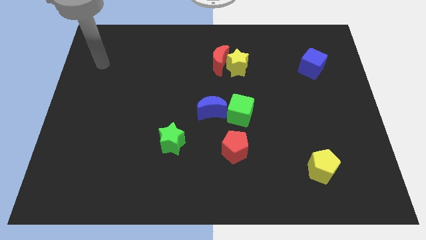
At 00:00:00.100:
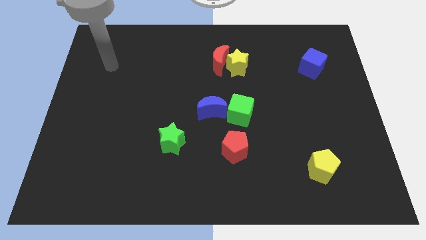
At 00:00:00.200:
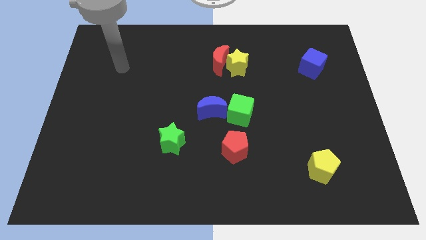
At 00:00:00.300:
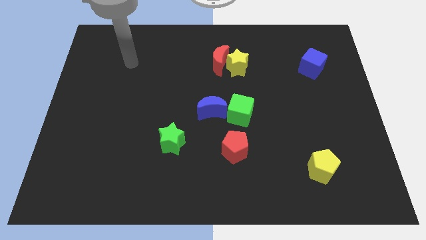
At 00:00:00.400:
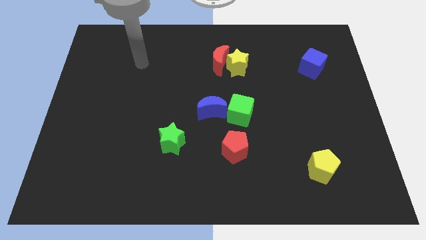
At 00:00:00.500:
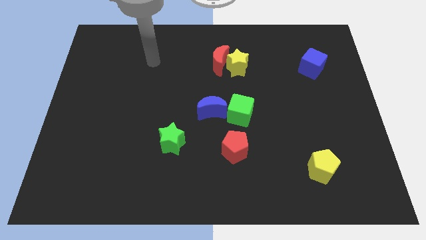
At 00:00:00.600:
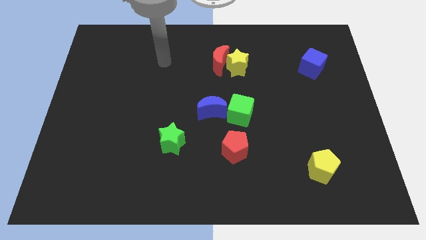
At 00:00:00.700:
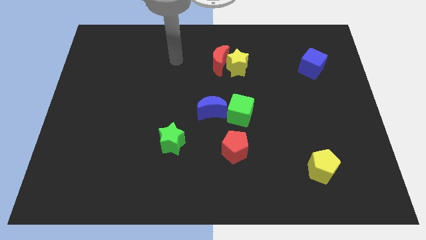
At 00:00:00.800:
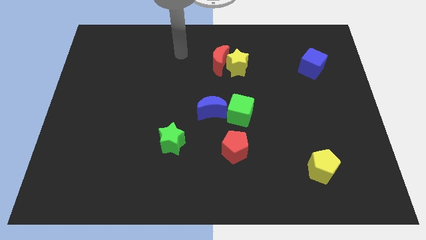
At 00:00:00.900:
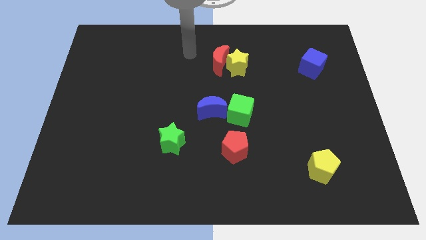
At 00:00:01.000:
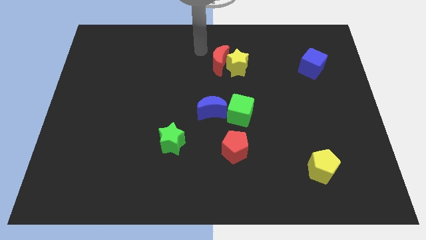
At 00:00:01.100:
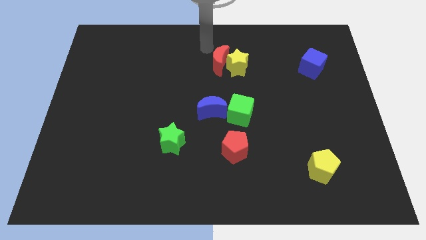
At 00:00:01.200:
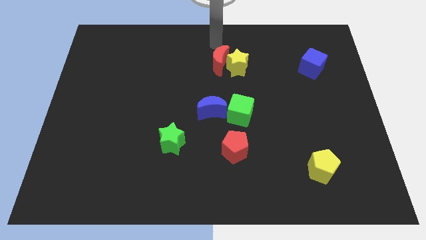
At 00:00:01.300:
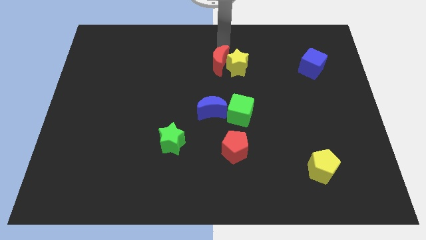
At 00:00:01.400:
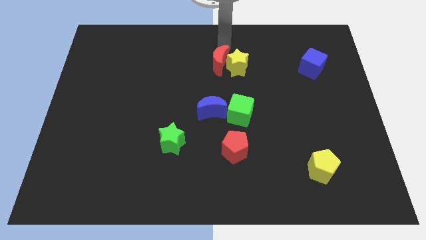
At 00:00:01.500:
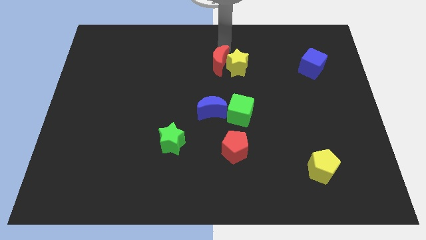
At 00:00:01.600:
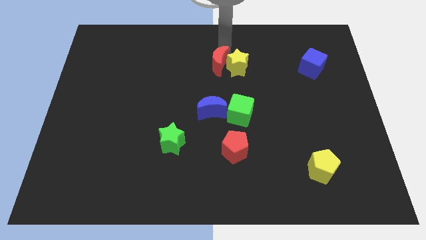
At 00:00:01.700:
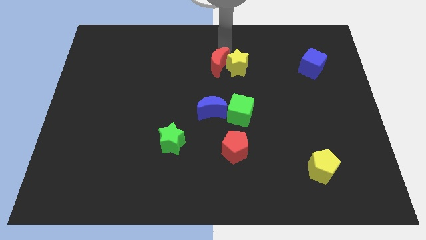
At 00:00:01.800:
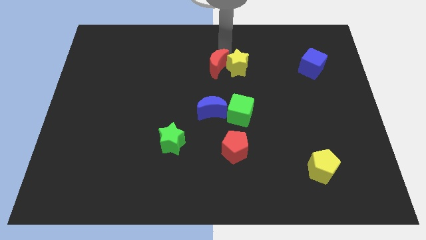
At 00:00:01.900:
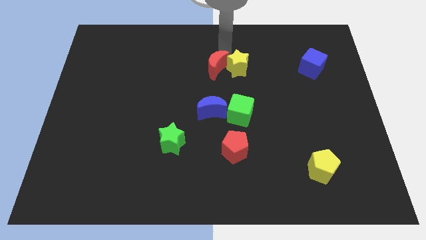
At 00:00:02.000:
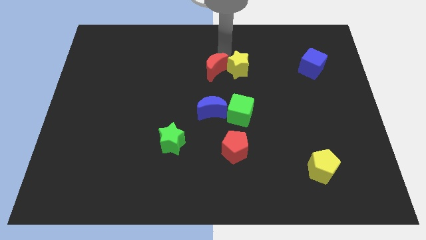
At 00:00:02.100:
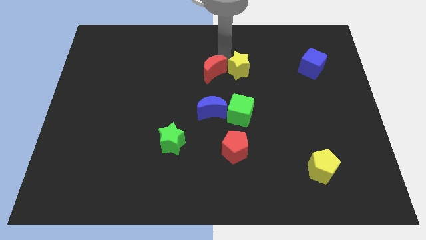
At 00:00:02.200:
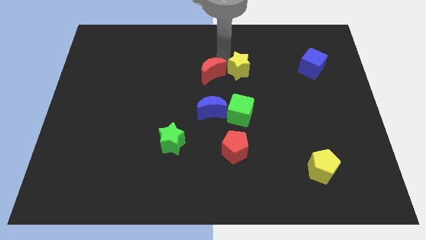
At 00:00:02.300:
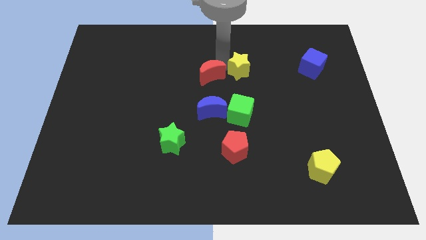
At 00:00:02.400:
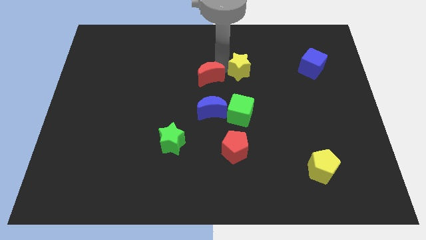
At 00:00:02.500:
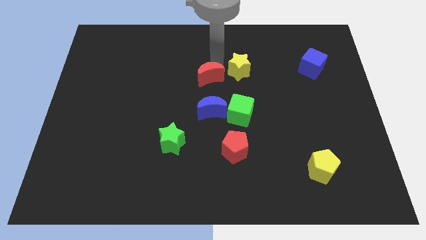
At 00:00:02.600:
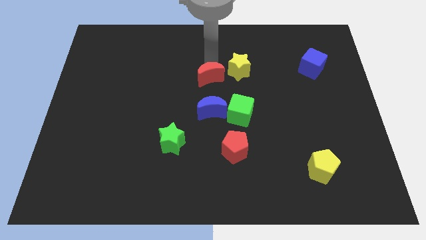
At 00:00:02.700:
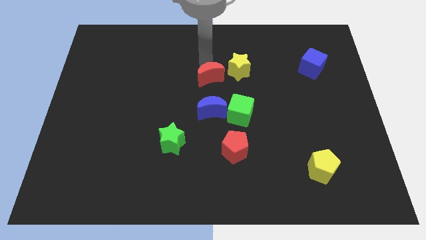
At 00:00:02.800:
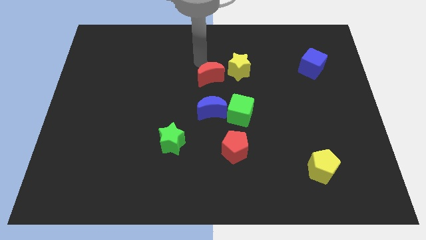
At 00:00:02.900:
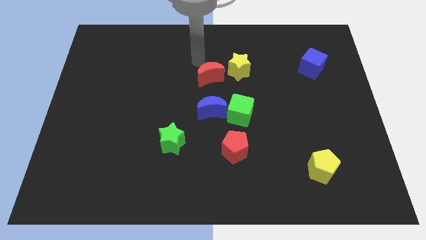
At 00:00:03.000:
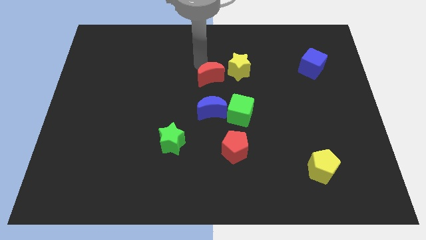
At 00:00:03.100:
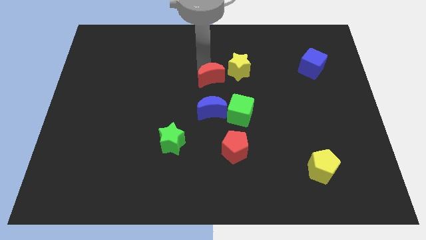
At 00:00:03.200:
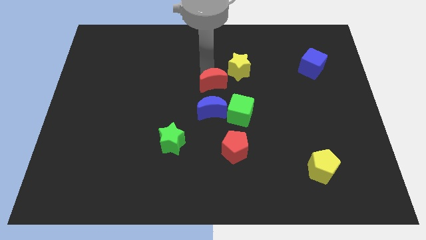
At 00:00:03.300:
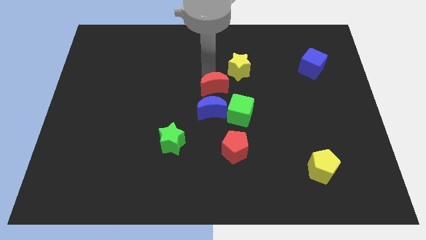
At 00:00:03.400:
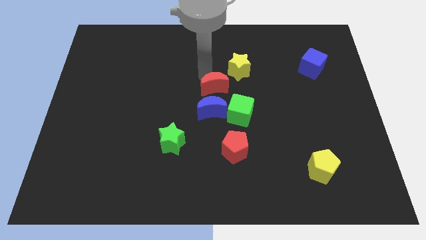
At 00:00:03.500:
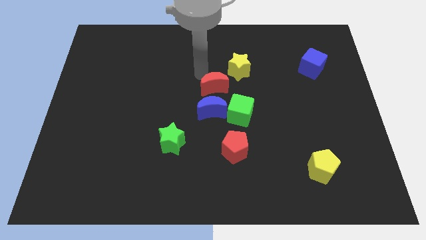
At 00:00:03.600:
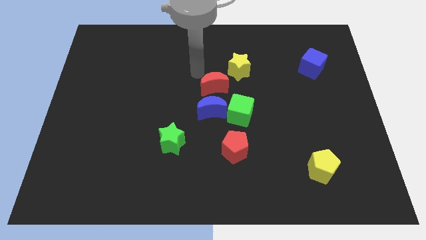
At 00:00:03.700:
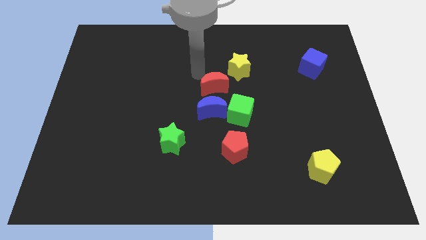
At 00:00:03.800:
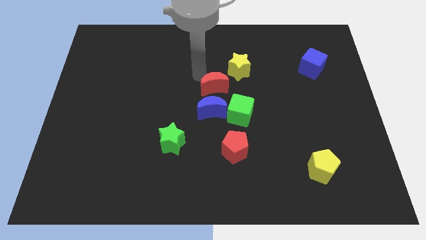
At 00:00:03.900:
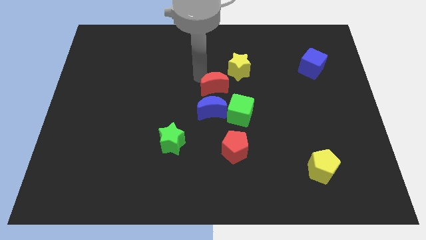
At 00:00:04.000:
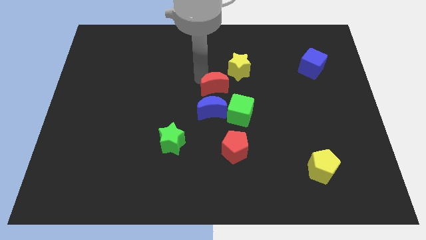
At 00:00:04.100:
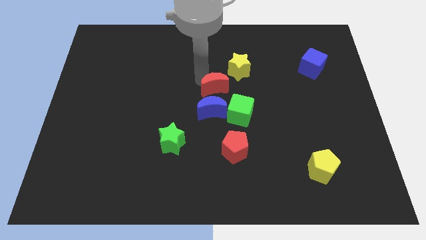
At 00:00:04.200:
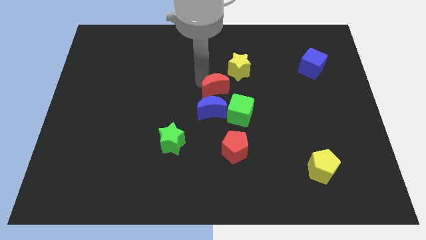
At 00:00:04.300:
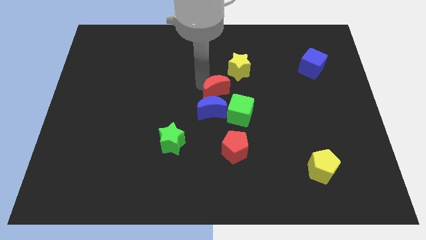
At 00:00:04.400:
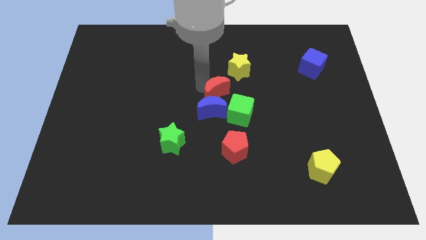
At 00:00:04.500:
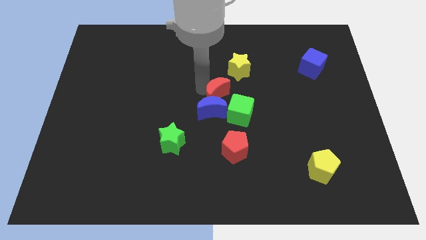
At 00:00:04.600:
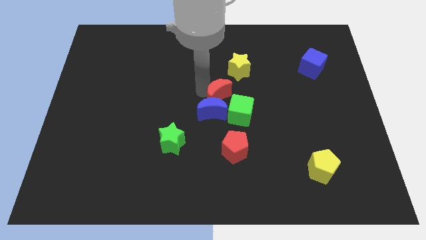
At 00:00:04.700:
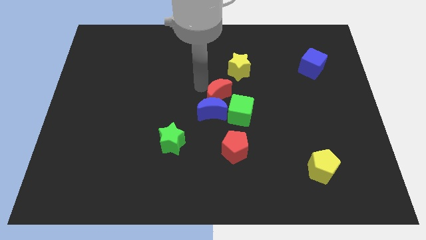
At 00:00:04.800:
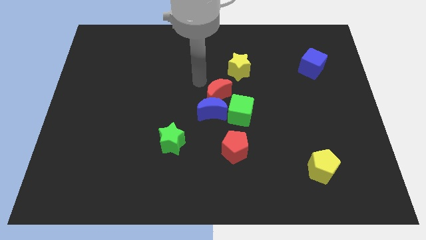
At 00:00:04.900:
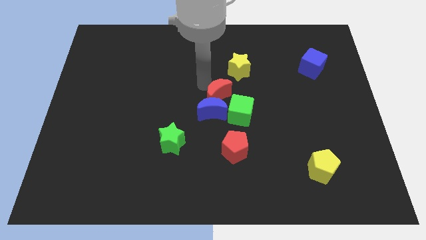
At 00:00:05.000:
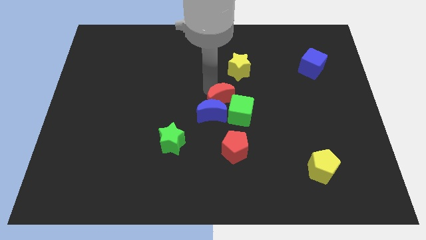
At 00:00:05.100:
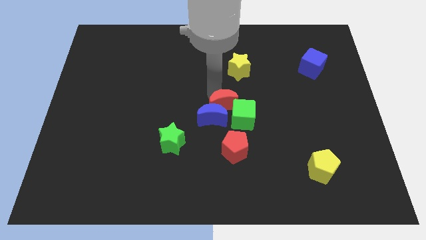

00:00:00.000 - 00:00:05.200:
put the red moon to the green cube

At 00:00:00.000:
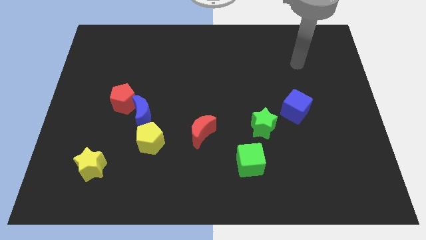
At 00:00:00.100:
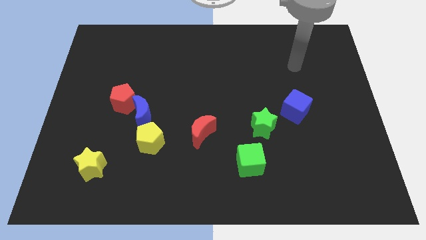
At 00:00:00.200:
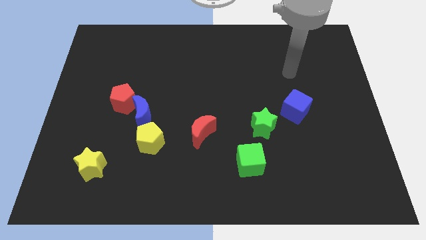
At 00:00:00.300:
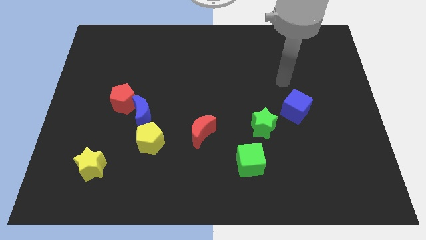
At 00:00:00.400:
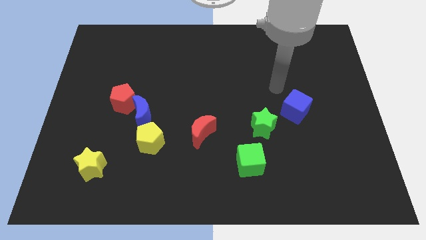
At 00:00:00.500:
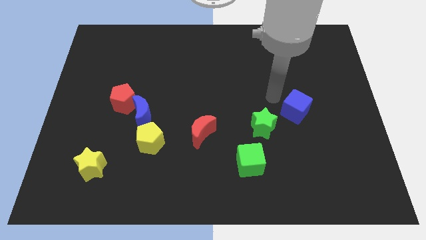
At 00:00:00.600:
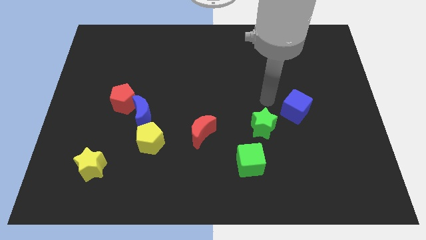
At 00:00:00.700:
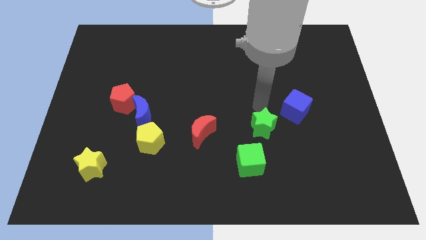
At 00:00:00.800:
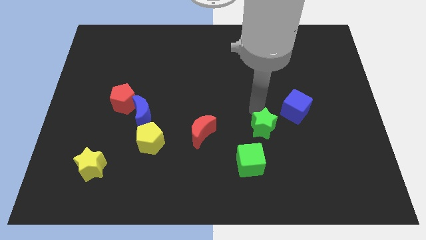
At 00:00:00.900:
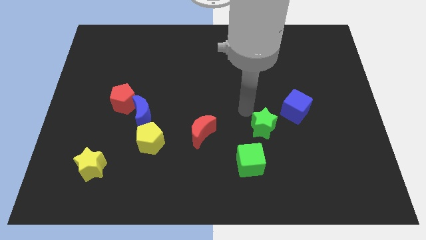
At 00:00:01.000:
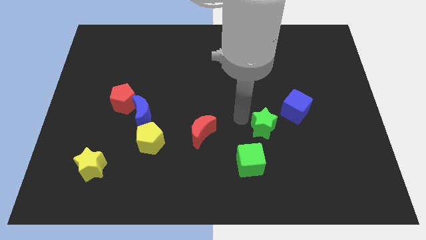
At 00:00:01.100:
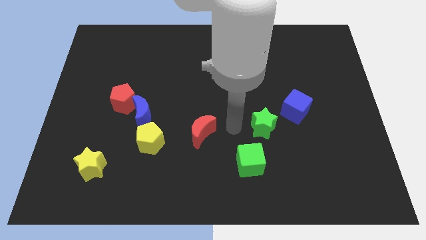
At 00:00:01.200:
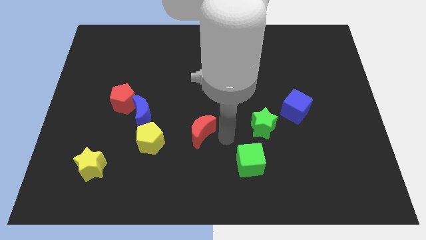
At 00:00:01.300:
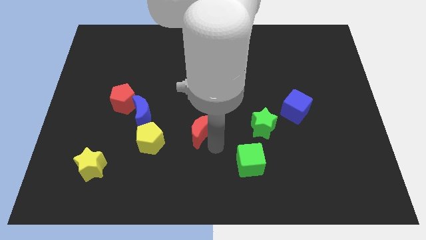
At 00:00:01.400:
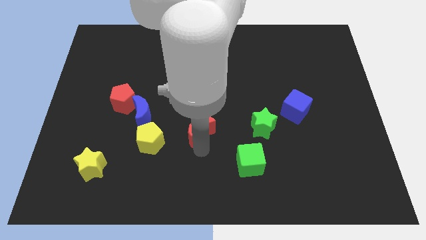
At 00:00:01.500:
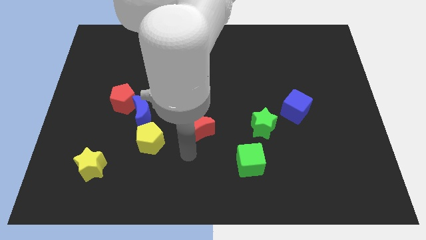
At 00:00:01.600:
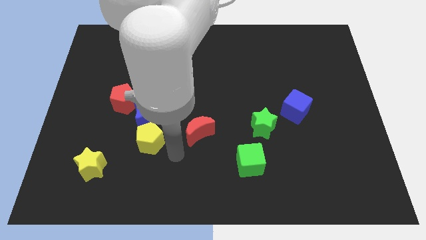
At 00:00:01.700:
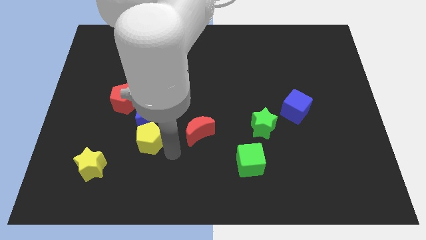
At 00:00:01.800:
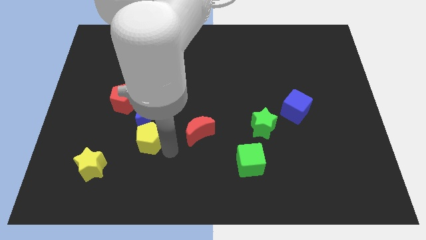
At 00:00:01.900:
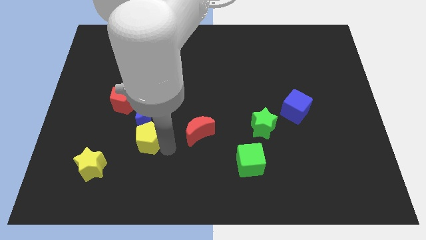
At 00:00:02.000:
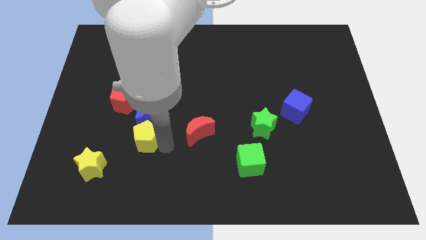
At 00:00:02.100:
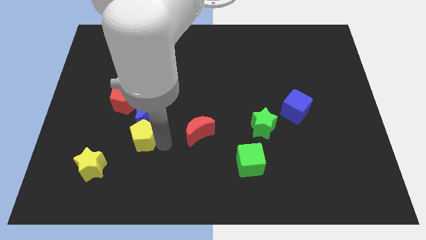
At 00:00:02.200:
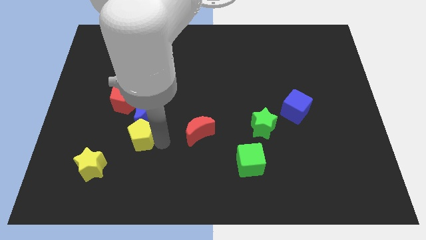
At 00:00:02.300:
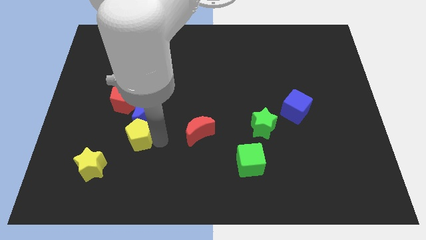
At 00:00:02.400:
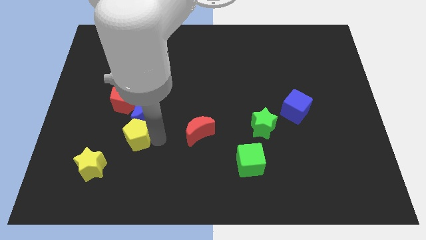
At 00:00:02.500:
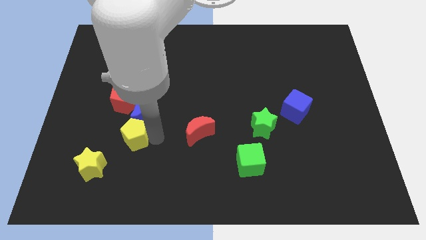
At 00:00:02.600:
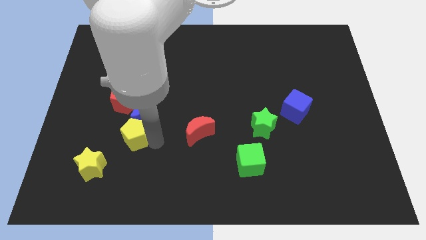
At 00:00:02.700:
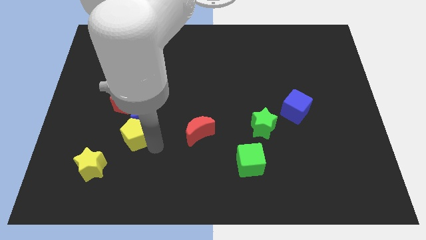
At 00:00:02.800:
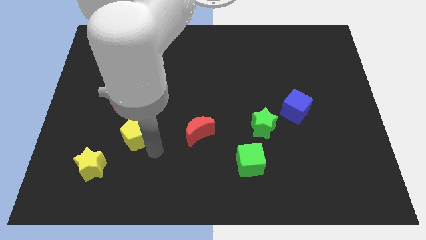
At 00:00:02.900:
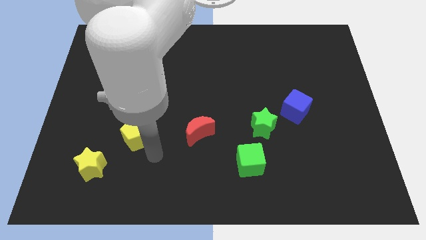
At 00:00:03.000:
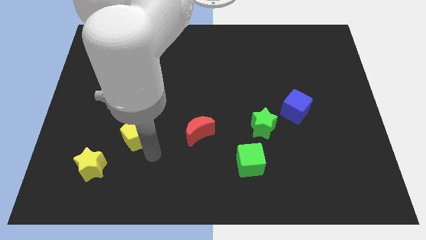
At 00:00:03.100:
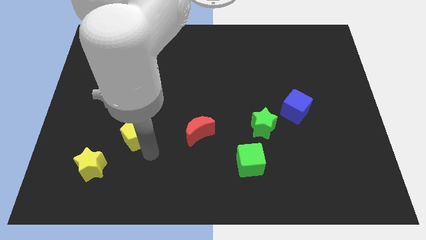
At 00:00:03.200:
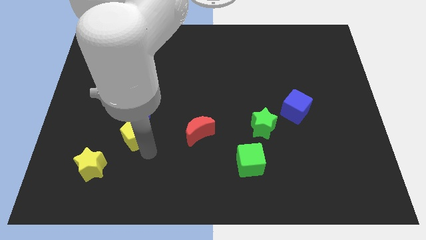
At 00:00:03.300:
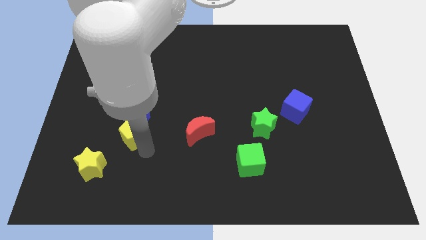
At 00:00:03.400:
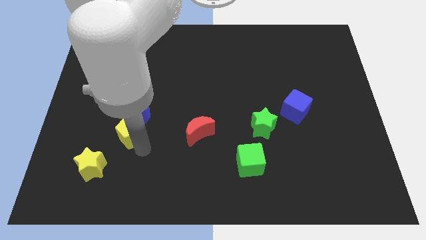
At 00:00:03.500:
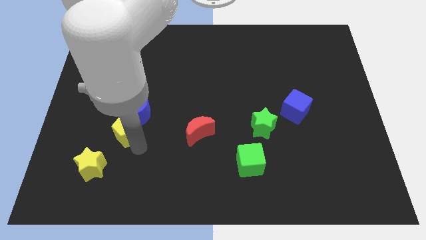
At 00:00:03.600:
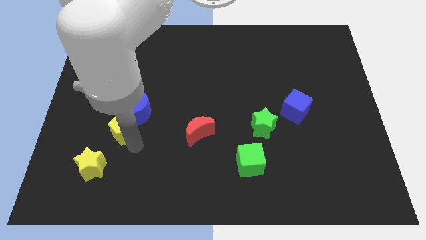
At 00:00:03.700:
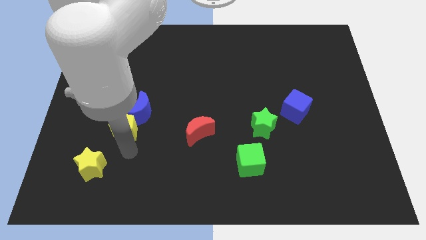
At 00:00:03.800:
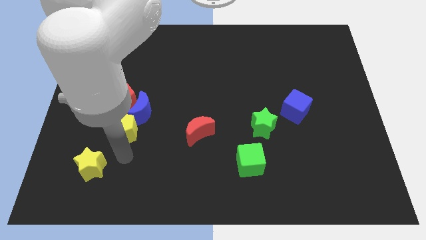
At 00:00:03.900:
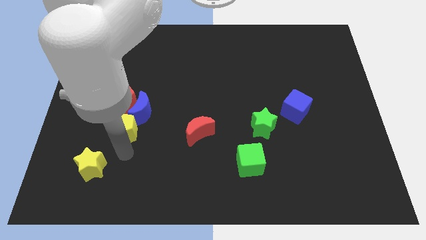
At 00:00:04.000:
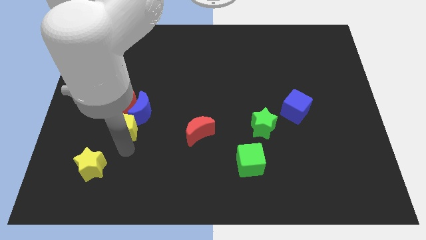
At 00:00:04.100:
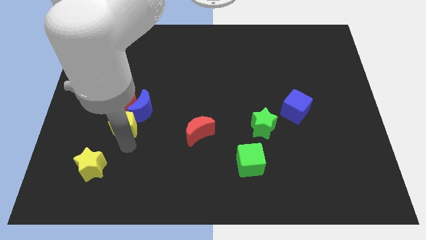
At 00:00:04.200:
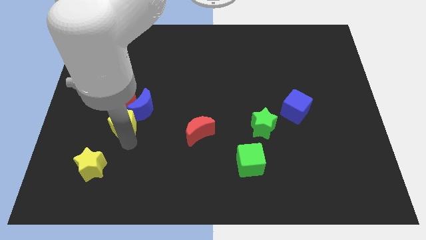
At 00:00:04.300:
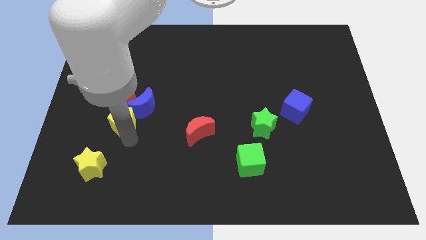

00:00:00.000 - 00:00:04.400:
slide the yellow pentagon close to the red pentagon
